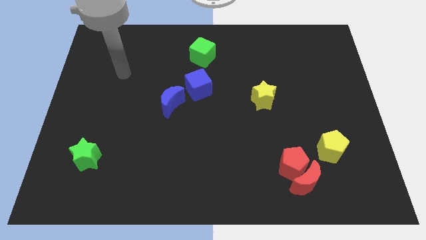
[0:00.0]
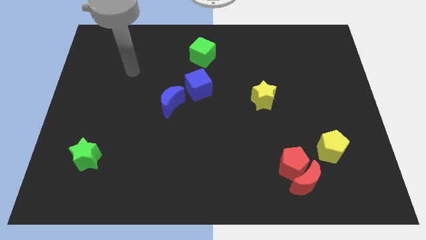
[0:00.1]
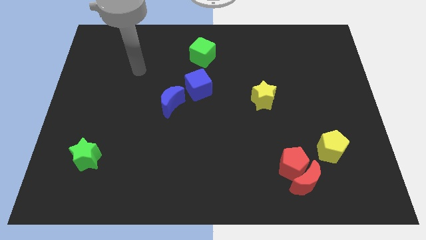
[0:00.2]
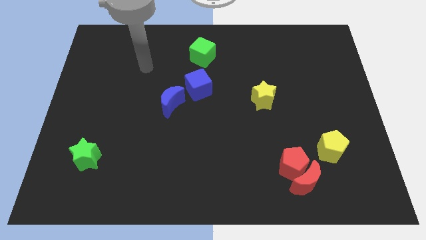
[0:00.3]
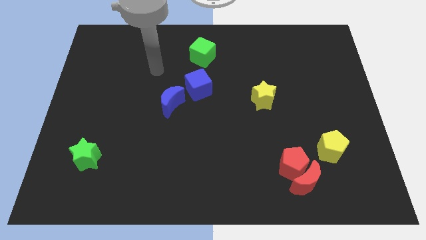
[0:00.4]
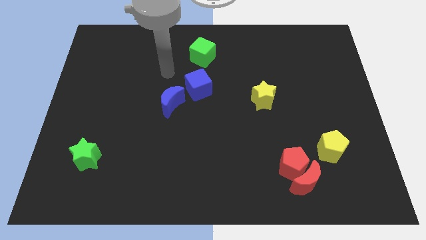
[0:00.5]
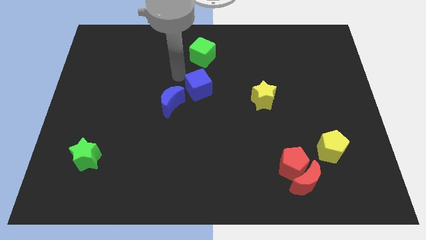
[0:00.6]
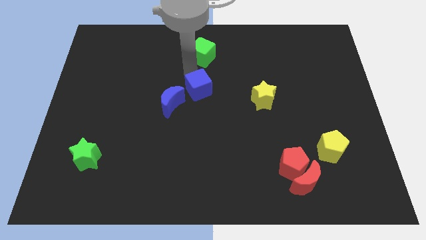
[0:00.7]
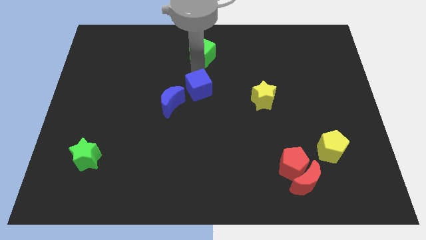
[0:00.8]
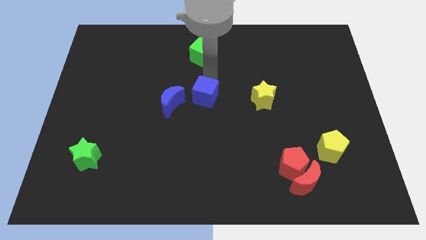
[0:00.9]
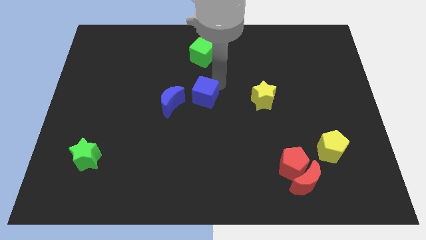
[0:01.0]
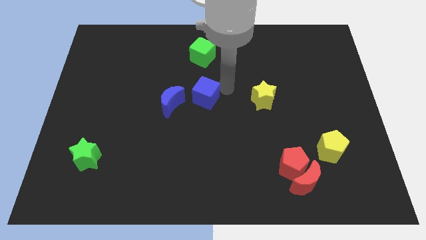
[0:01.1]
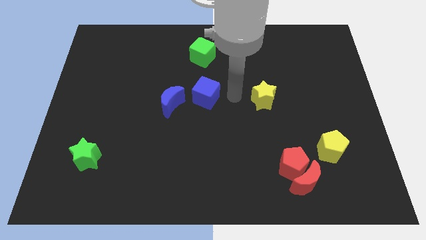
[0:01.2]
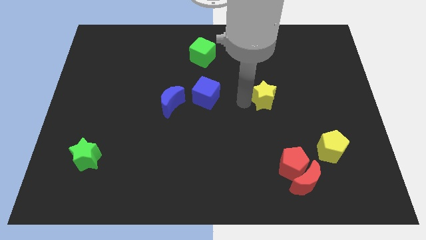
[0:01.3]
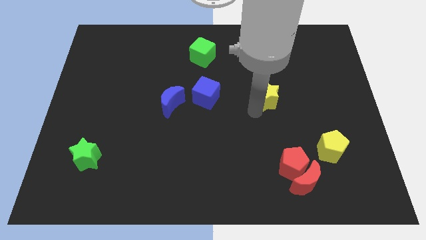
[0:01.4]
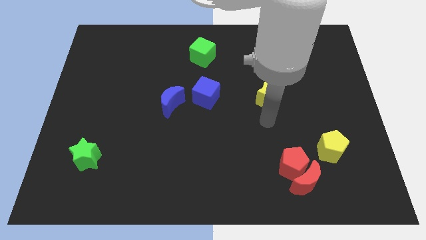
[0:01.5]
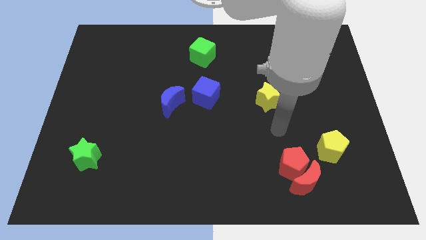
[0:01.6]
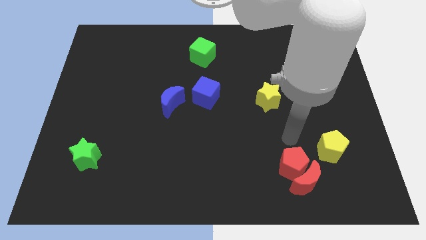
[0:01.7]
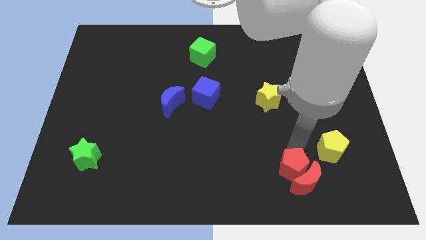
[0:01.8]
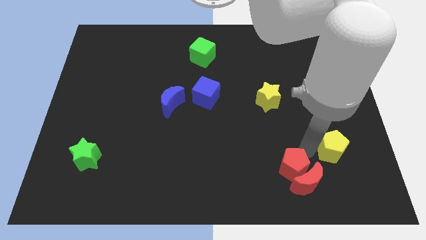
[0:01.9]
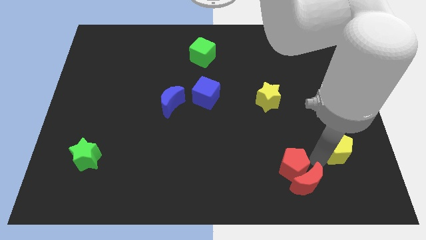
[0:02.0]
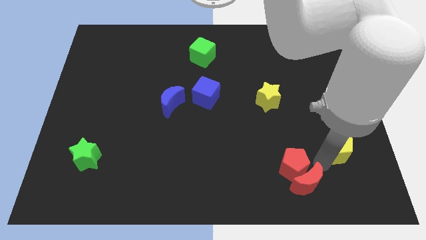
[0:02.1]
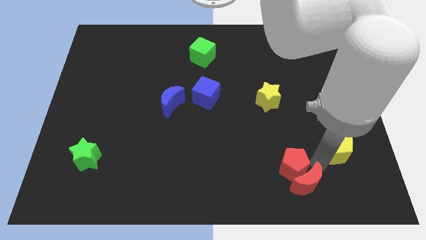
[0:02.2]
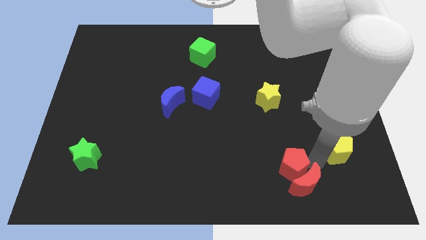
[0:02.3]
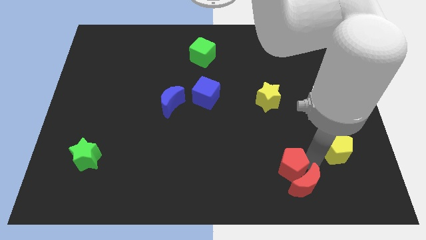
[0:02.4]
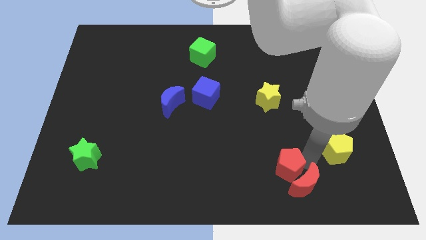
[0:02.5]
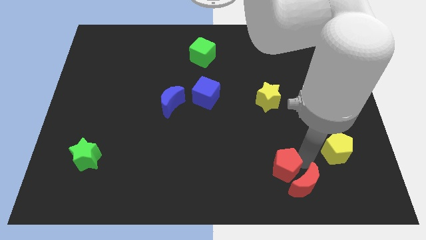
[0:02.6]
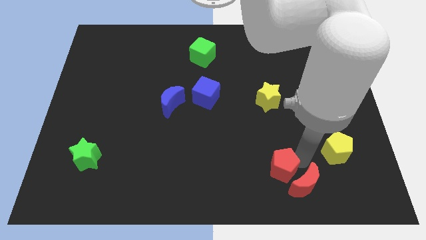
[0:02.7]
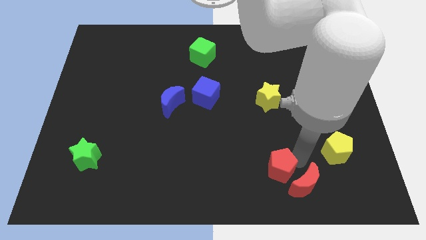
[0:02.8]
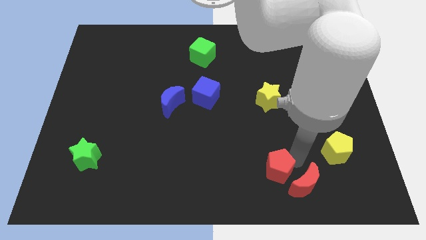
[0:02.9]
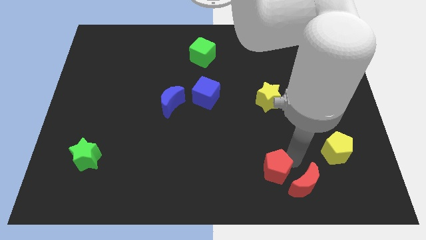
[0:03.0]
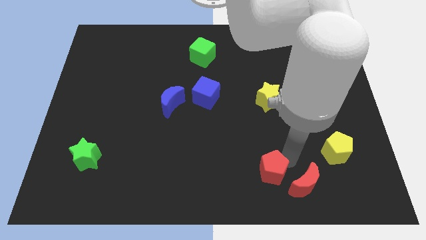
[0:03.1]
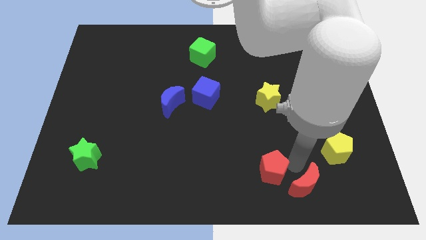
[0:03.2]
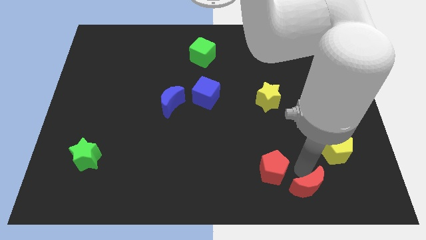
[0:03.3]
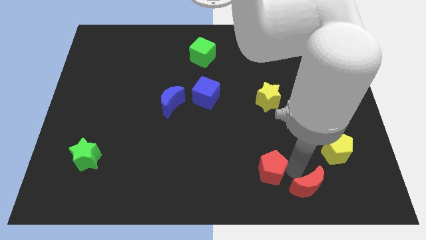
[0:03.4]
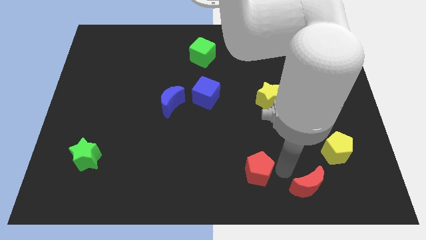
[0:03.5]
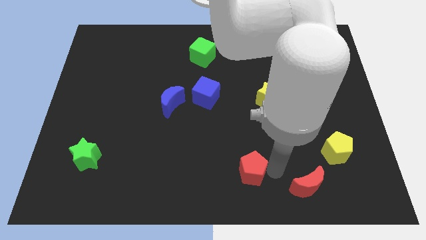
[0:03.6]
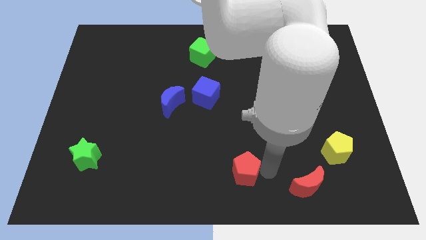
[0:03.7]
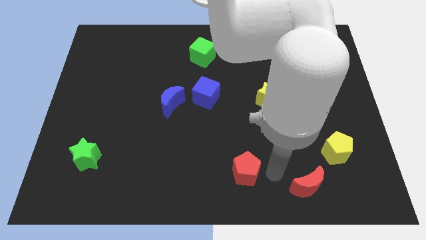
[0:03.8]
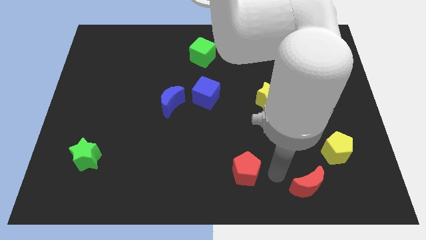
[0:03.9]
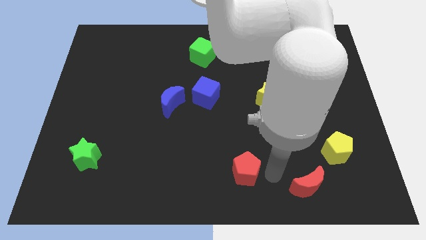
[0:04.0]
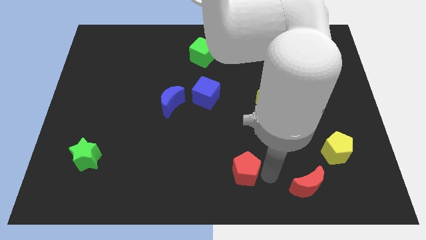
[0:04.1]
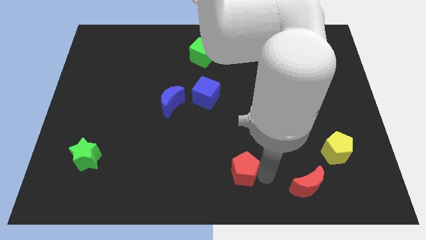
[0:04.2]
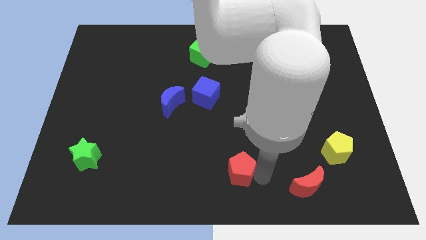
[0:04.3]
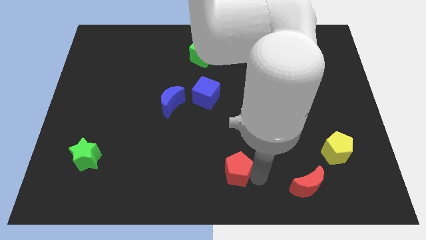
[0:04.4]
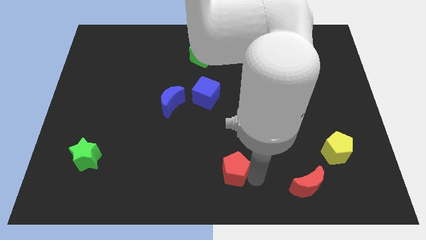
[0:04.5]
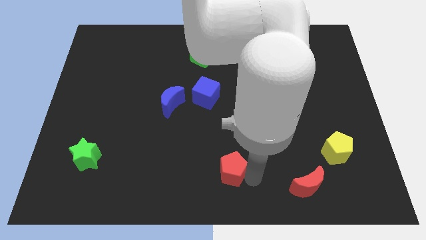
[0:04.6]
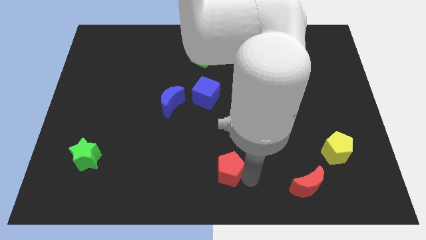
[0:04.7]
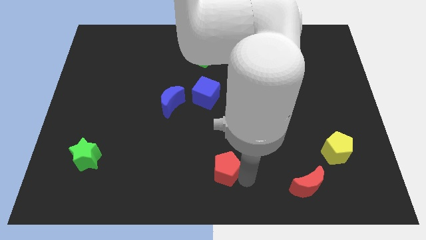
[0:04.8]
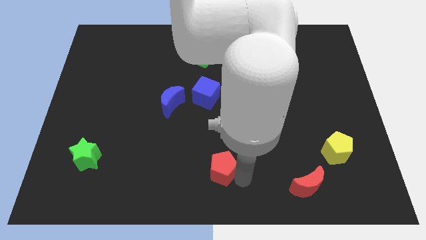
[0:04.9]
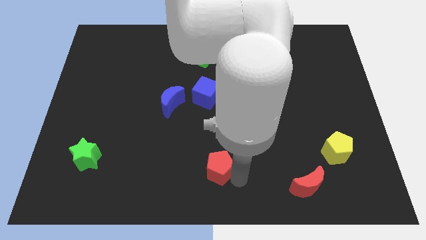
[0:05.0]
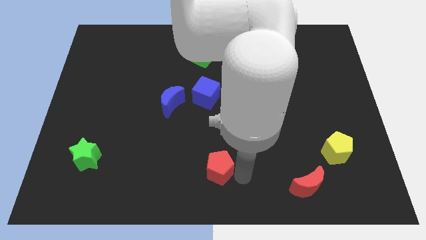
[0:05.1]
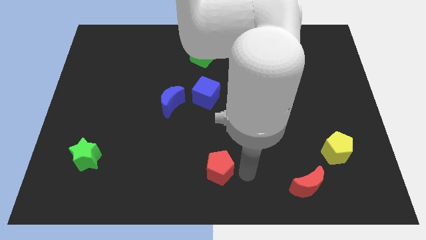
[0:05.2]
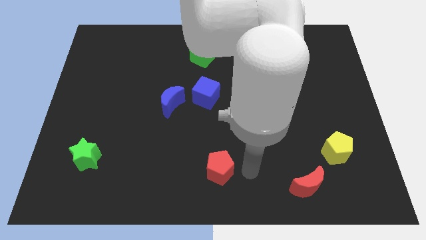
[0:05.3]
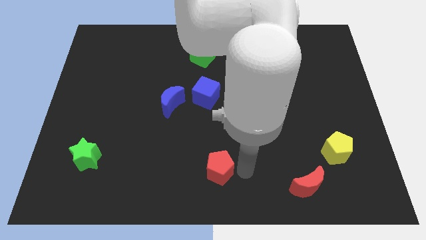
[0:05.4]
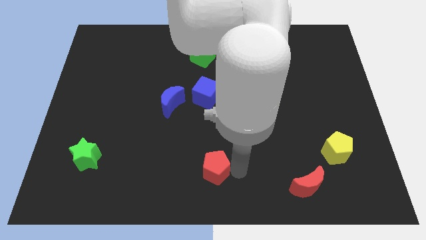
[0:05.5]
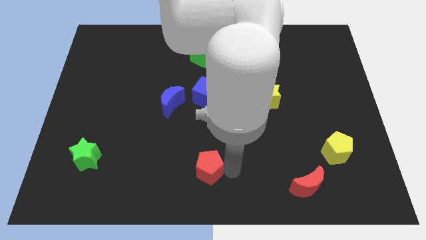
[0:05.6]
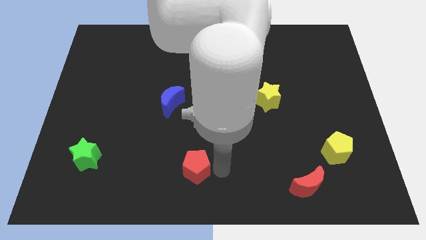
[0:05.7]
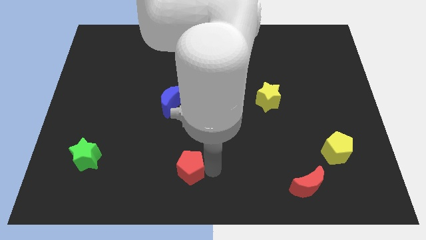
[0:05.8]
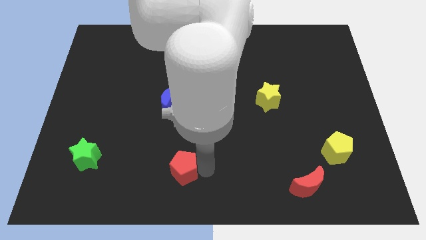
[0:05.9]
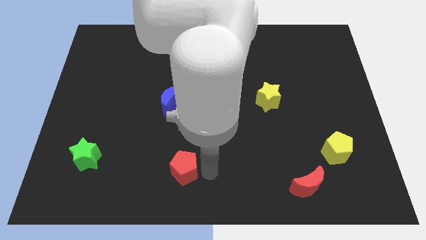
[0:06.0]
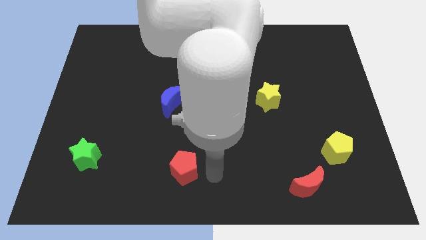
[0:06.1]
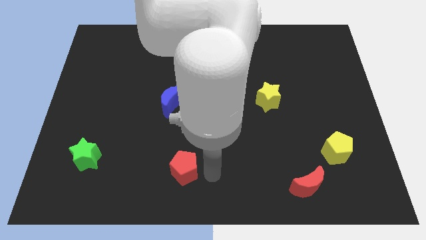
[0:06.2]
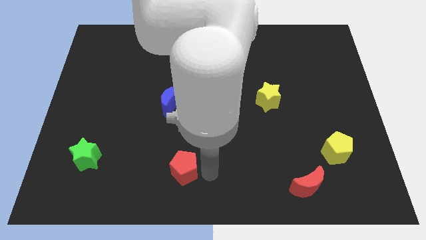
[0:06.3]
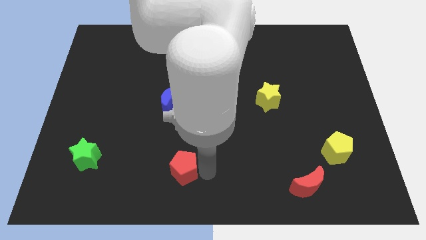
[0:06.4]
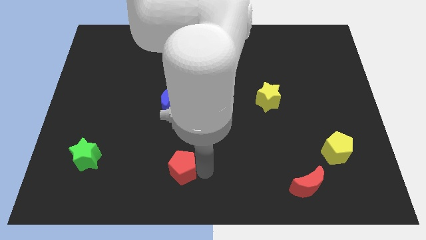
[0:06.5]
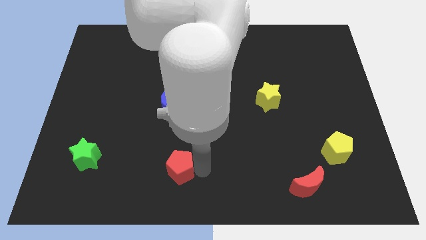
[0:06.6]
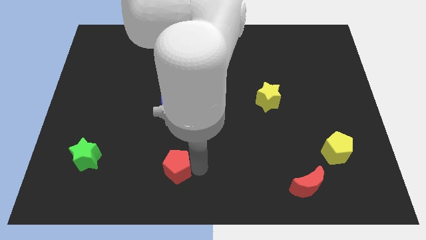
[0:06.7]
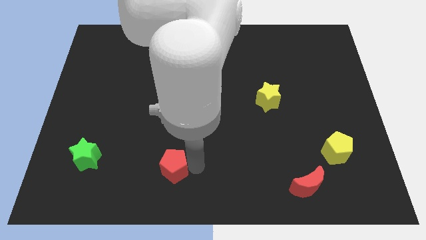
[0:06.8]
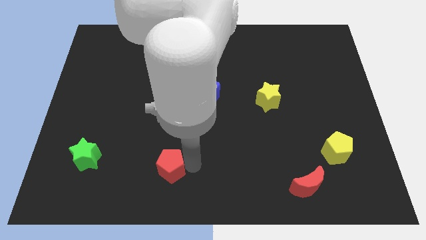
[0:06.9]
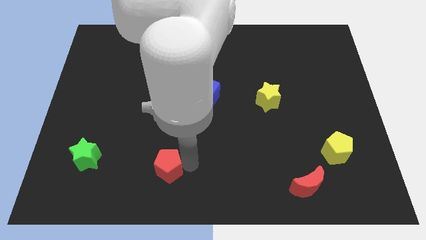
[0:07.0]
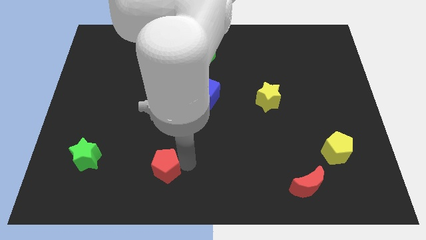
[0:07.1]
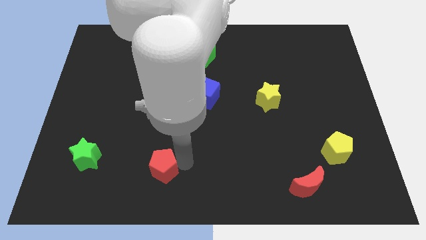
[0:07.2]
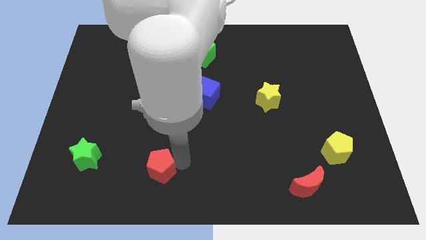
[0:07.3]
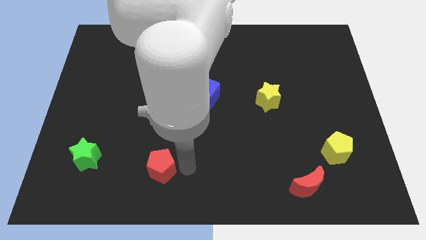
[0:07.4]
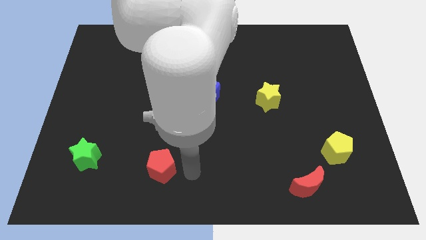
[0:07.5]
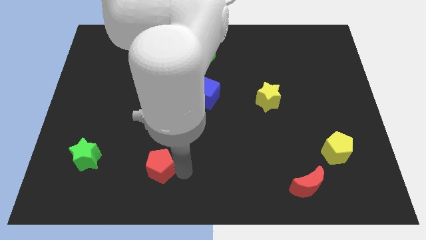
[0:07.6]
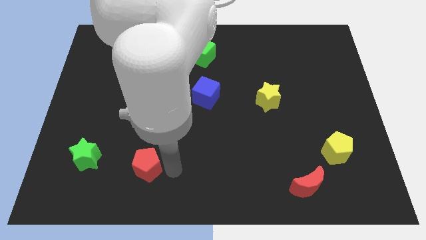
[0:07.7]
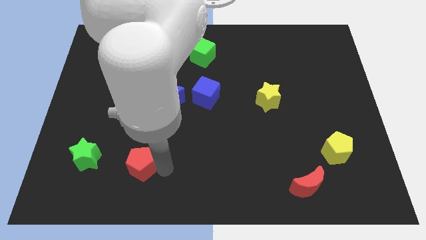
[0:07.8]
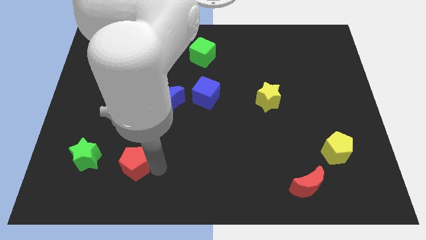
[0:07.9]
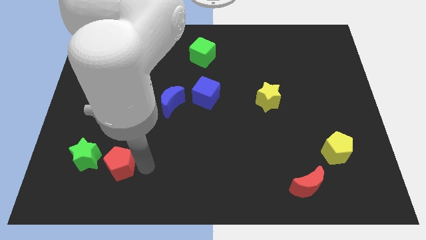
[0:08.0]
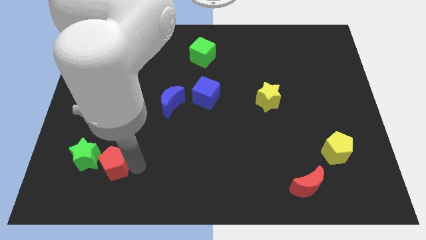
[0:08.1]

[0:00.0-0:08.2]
put the red pentagon towards the green star
